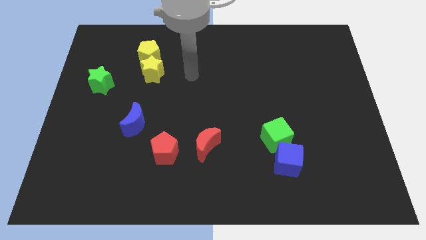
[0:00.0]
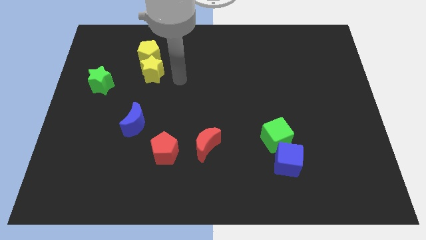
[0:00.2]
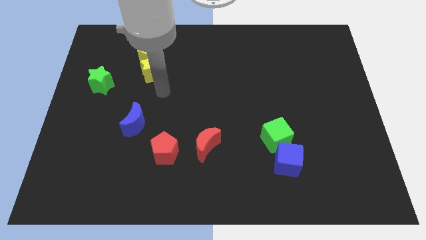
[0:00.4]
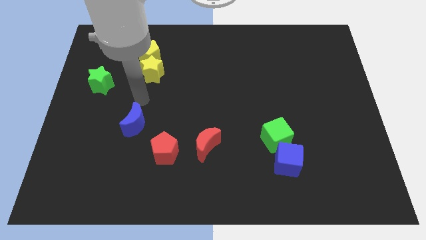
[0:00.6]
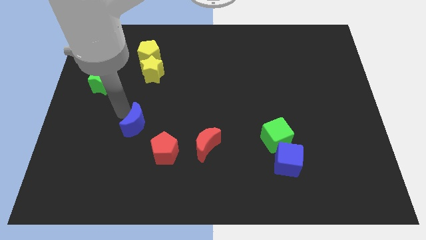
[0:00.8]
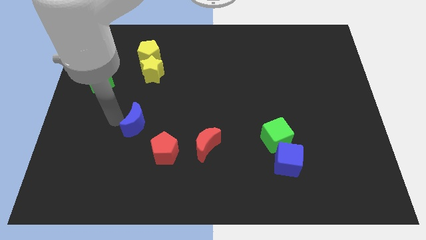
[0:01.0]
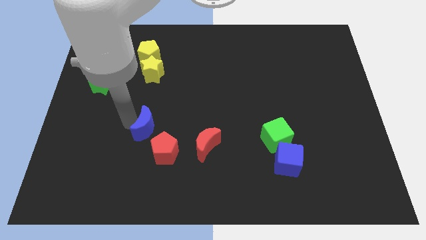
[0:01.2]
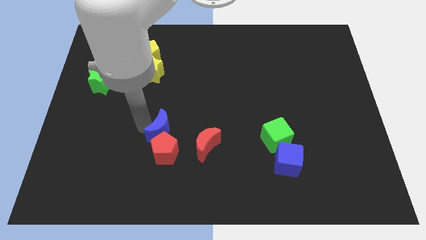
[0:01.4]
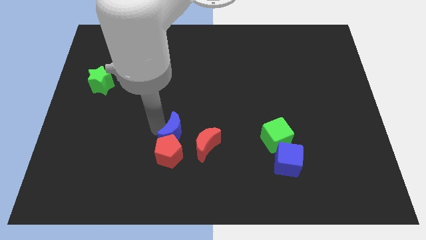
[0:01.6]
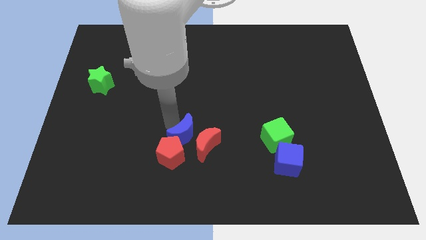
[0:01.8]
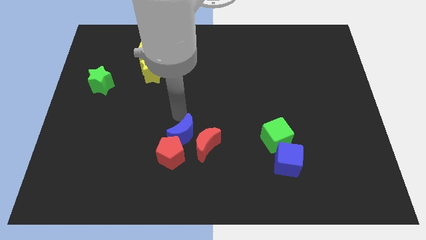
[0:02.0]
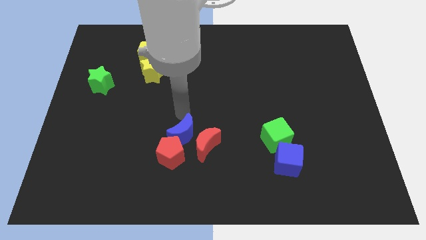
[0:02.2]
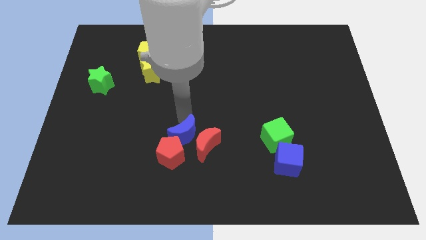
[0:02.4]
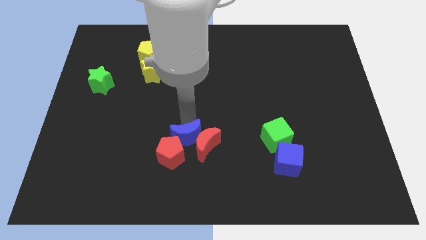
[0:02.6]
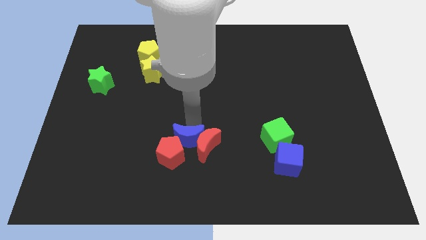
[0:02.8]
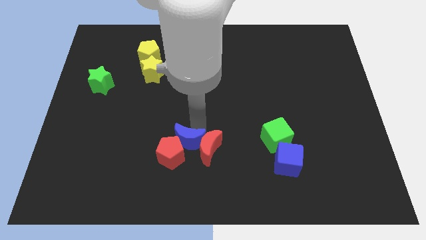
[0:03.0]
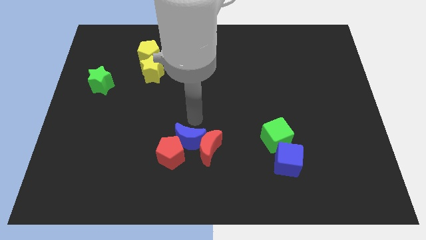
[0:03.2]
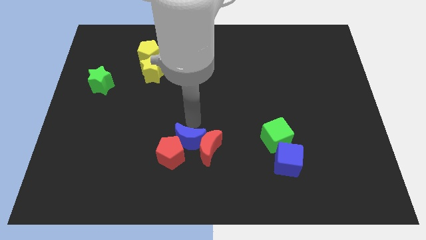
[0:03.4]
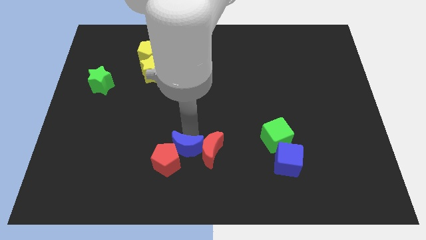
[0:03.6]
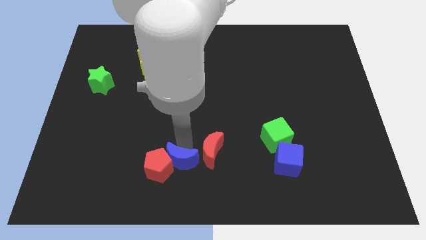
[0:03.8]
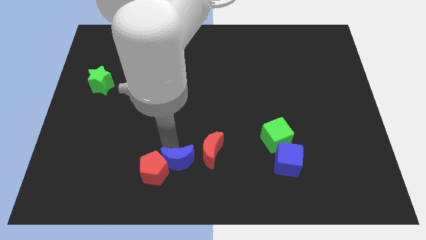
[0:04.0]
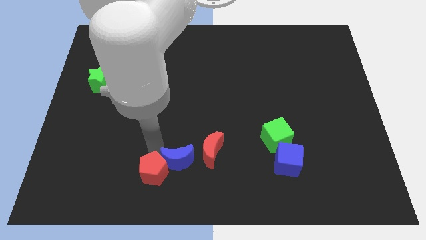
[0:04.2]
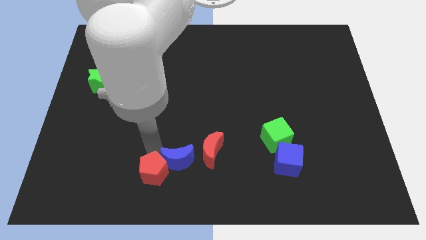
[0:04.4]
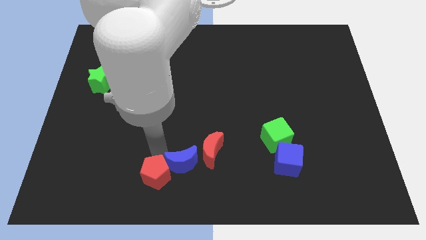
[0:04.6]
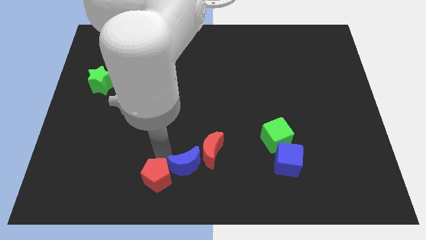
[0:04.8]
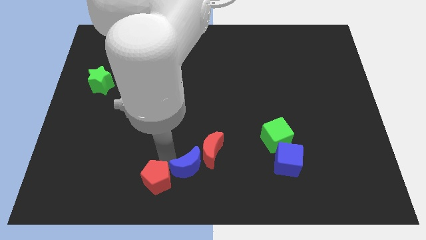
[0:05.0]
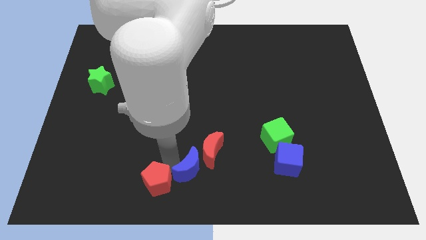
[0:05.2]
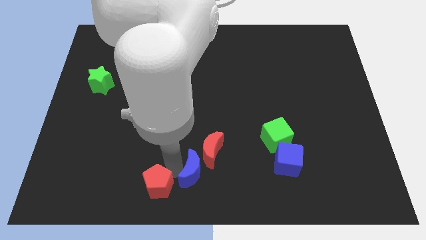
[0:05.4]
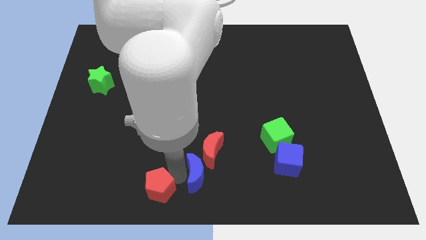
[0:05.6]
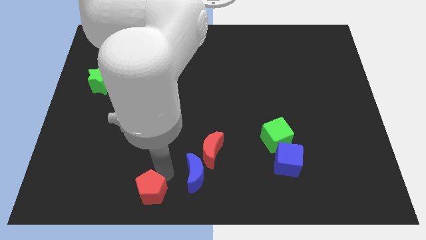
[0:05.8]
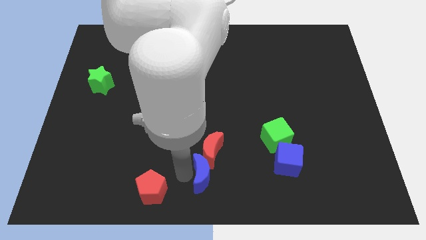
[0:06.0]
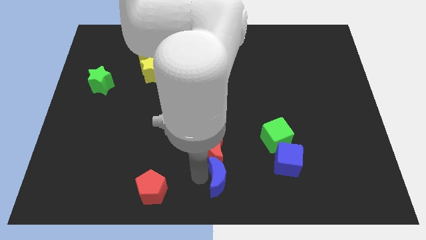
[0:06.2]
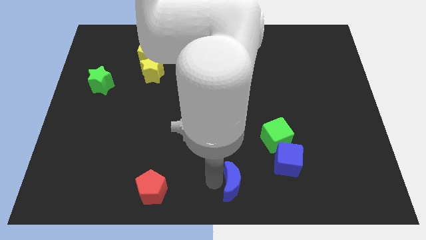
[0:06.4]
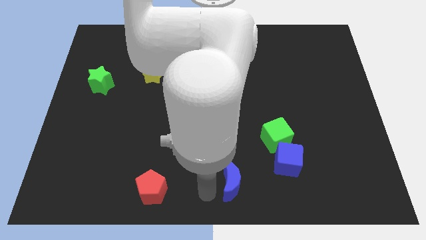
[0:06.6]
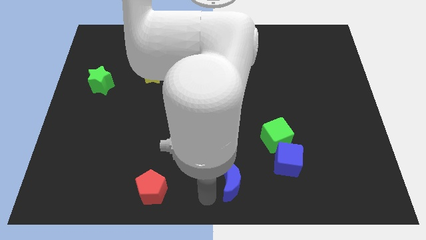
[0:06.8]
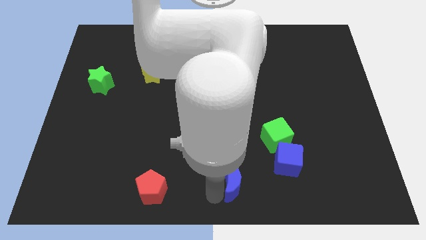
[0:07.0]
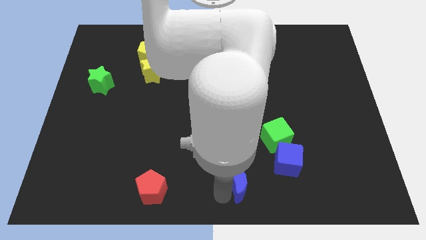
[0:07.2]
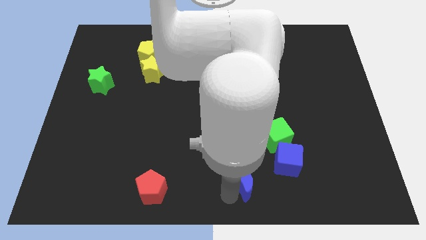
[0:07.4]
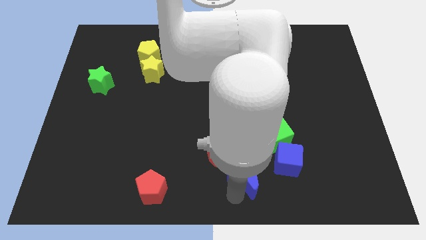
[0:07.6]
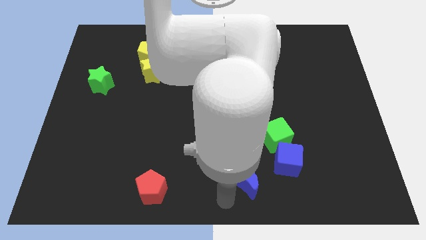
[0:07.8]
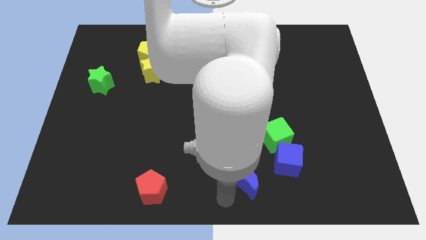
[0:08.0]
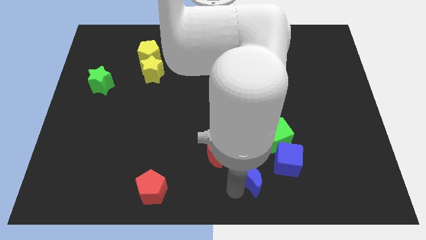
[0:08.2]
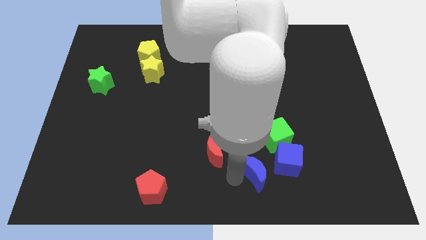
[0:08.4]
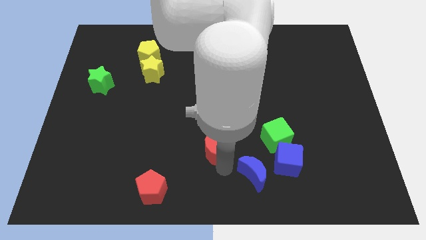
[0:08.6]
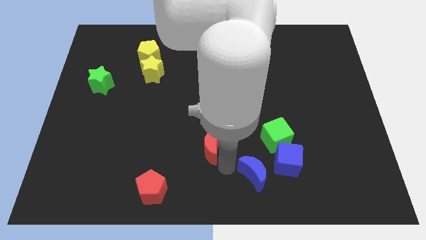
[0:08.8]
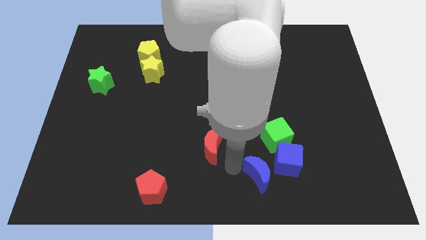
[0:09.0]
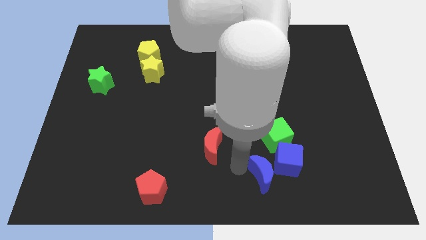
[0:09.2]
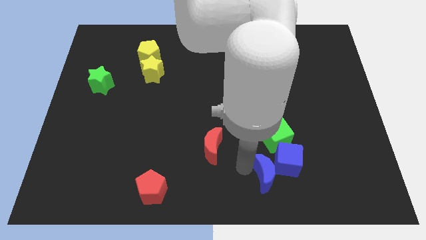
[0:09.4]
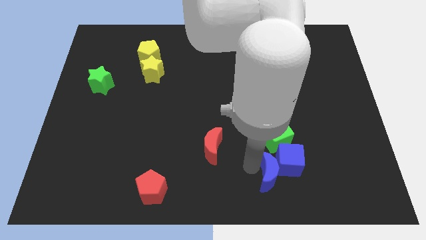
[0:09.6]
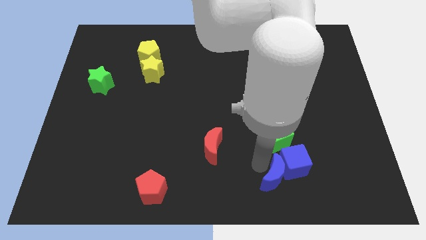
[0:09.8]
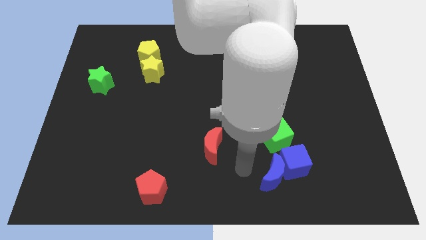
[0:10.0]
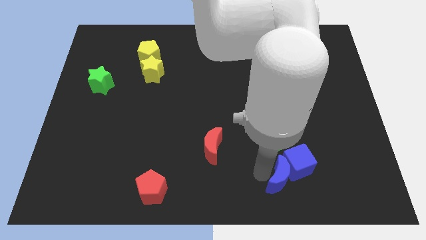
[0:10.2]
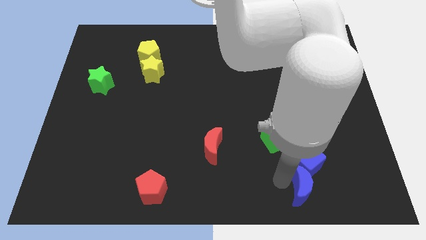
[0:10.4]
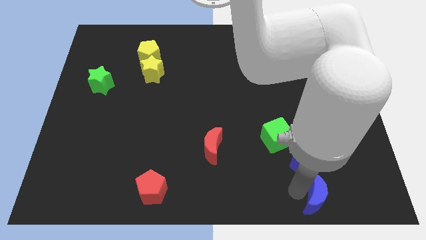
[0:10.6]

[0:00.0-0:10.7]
push the blue moon to the bottom right of the blue cube

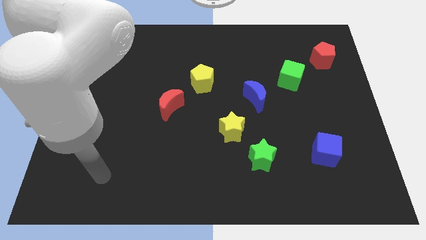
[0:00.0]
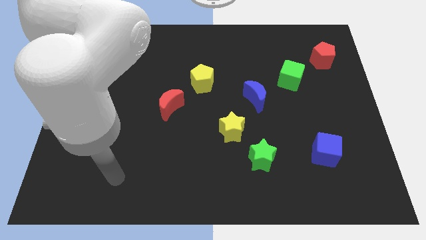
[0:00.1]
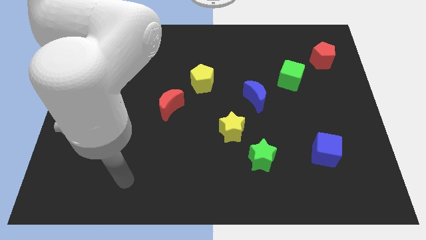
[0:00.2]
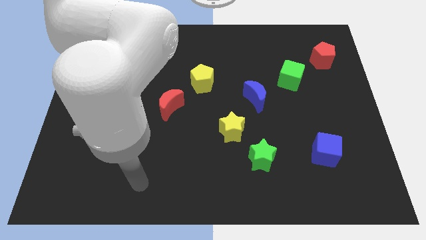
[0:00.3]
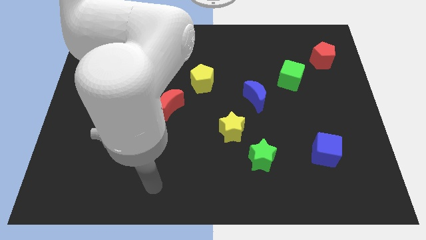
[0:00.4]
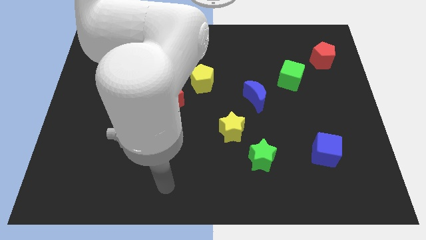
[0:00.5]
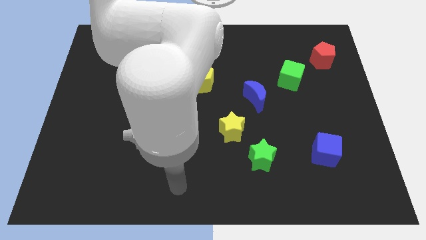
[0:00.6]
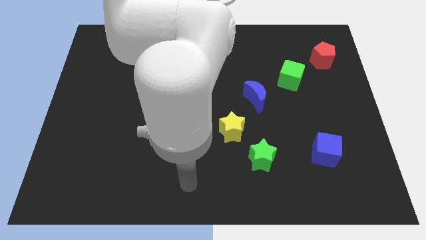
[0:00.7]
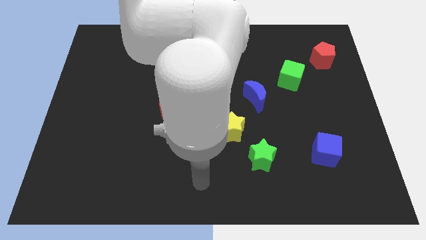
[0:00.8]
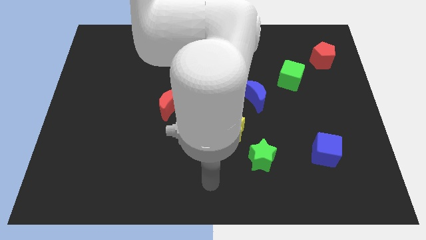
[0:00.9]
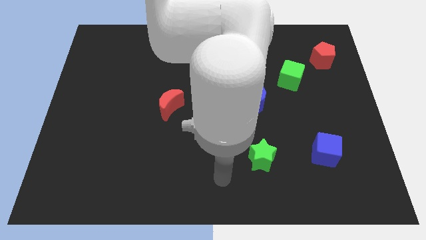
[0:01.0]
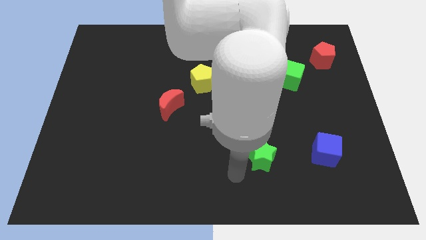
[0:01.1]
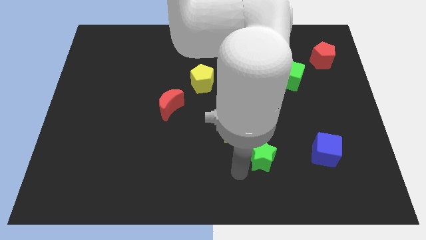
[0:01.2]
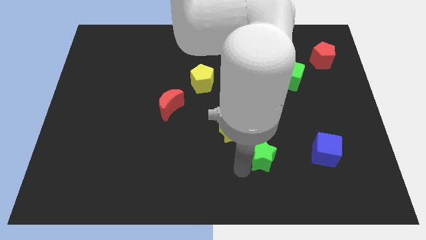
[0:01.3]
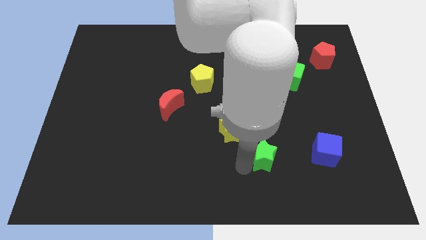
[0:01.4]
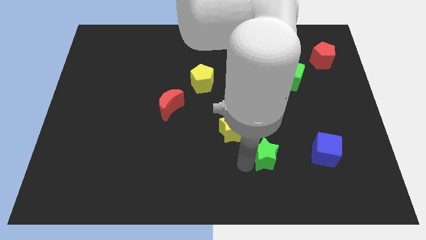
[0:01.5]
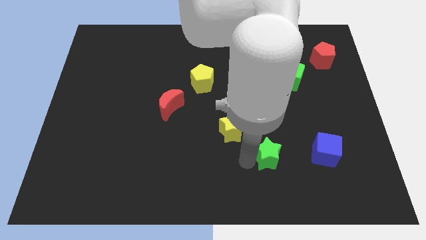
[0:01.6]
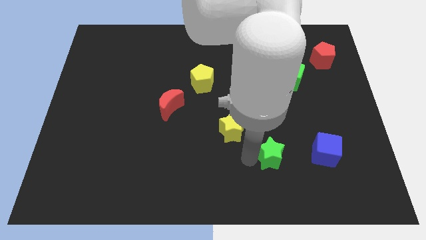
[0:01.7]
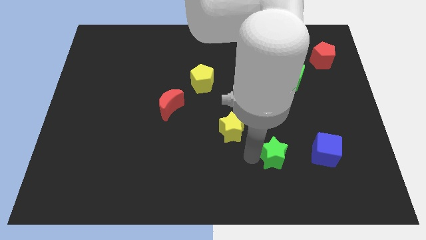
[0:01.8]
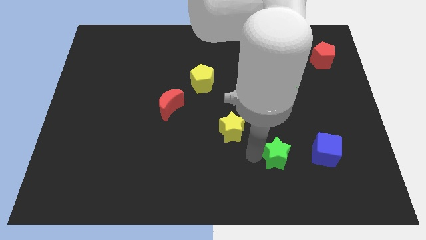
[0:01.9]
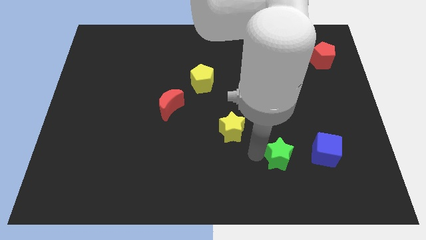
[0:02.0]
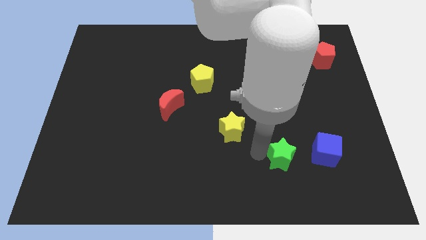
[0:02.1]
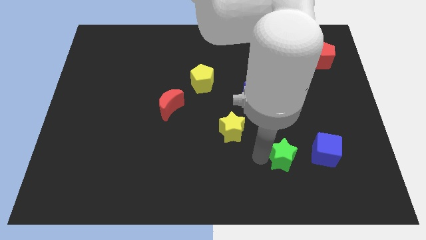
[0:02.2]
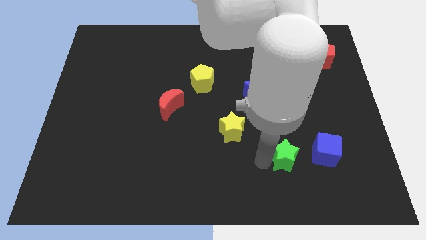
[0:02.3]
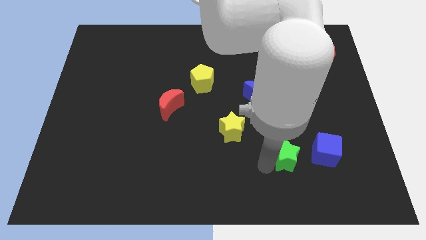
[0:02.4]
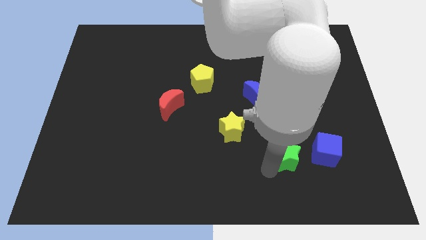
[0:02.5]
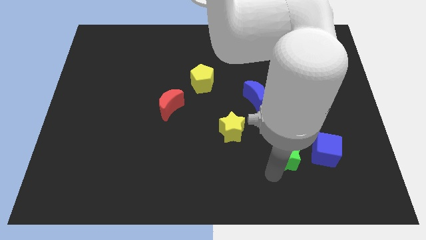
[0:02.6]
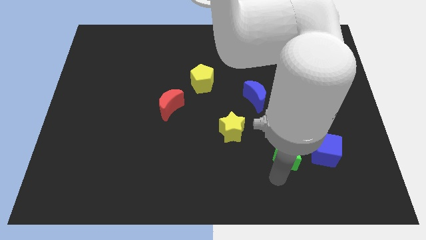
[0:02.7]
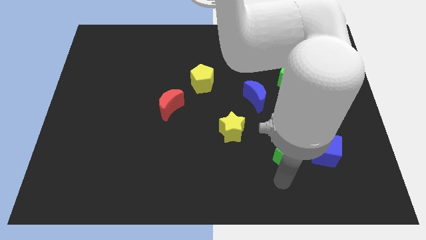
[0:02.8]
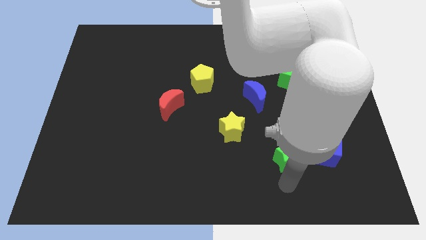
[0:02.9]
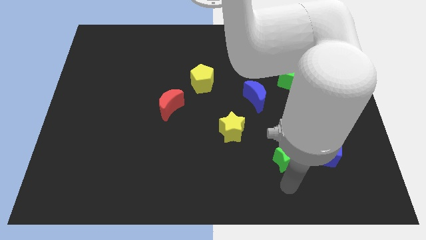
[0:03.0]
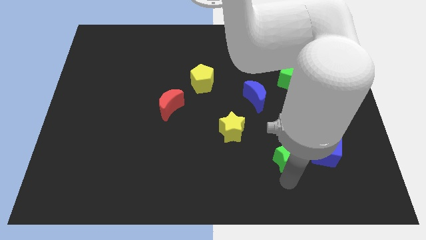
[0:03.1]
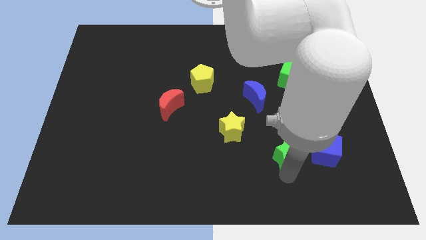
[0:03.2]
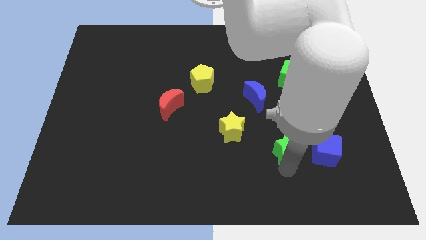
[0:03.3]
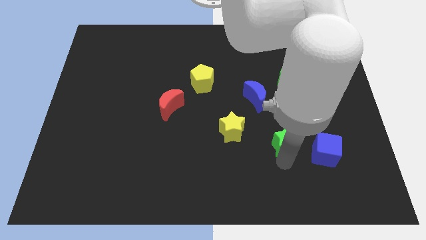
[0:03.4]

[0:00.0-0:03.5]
slide the green star to the top left of the blue cube
